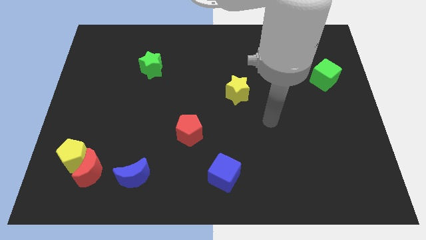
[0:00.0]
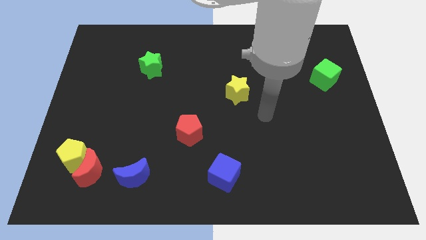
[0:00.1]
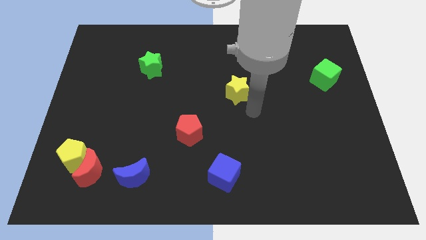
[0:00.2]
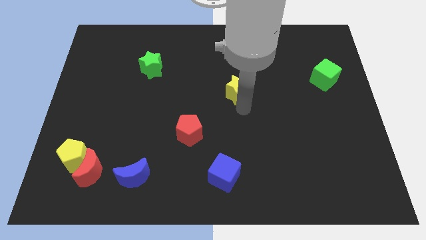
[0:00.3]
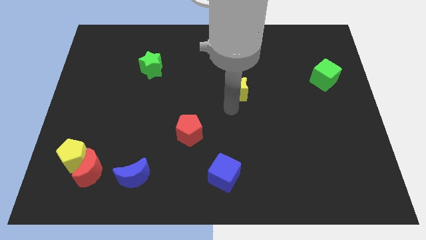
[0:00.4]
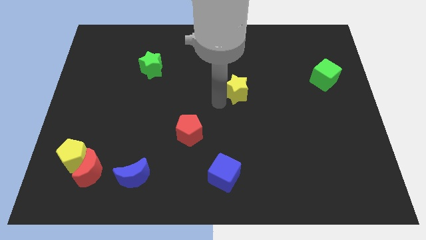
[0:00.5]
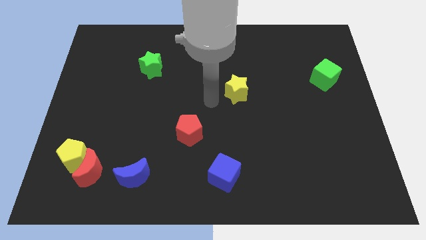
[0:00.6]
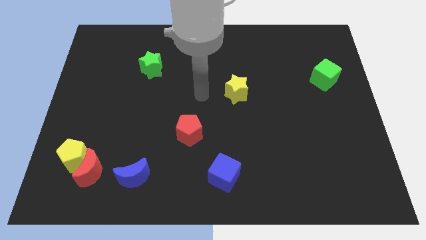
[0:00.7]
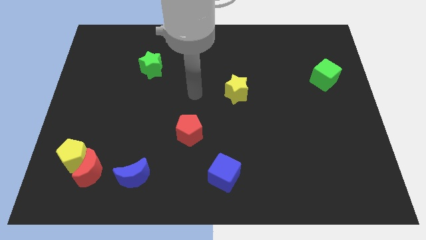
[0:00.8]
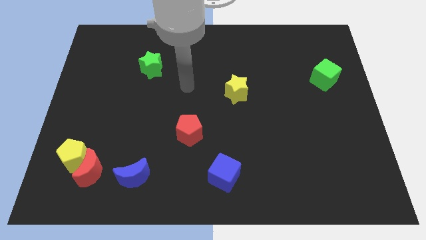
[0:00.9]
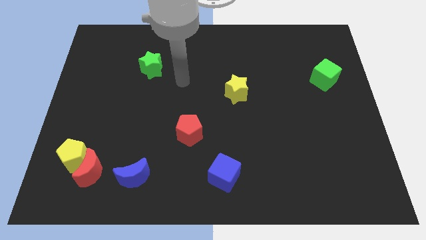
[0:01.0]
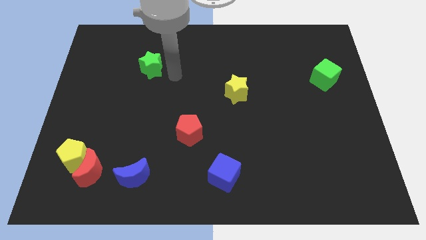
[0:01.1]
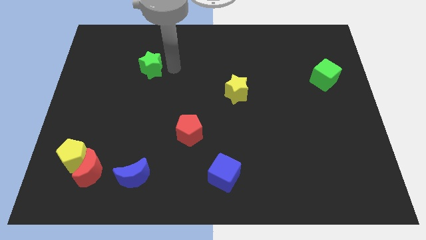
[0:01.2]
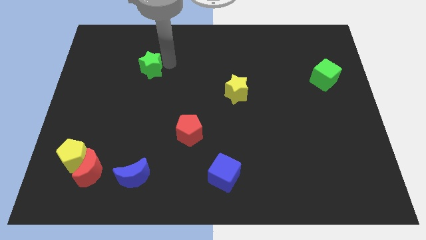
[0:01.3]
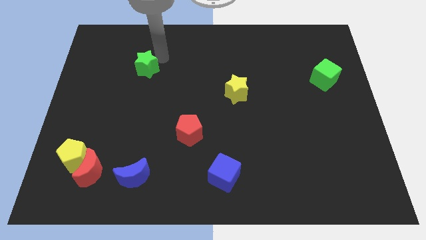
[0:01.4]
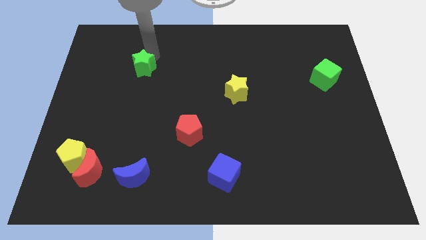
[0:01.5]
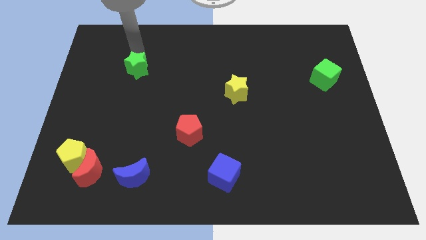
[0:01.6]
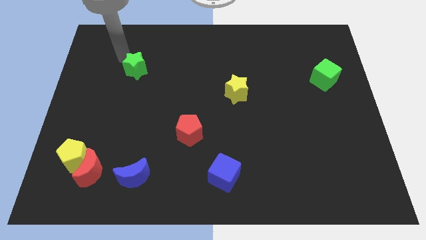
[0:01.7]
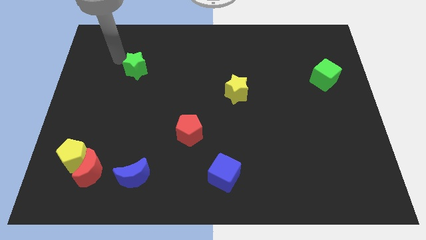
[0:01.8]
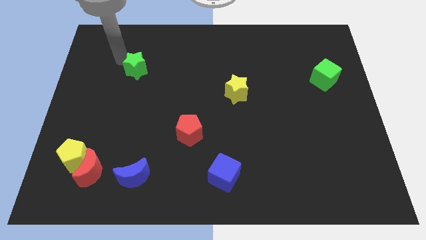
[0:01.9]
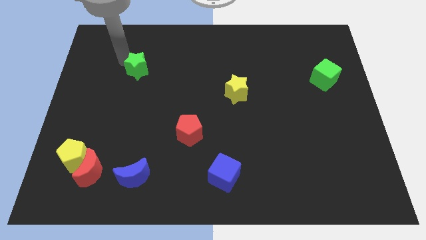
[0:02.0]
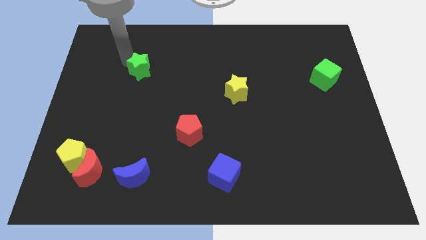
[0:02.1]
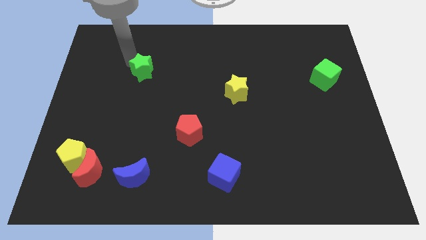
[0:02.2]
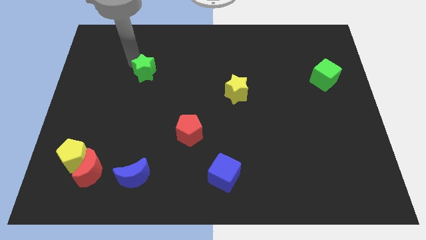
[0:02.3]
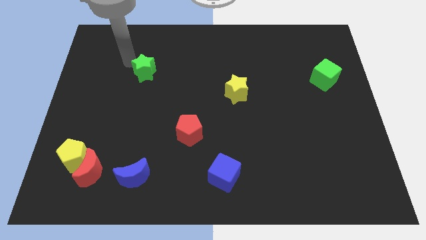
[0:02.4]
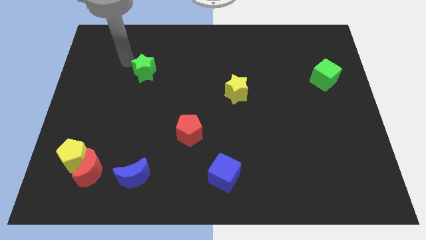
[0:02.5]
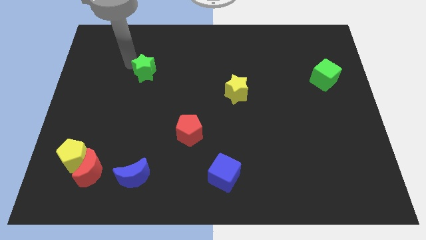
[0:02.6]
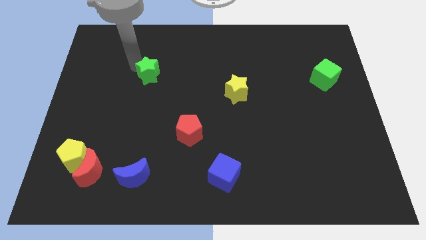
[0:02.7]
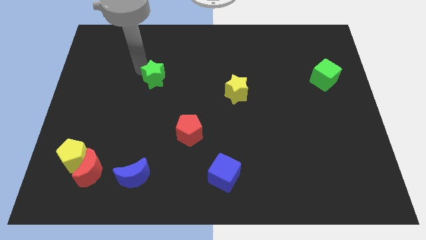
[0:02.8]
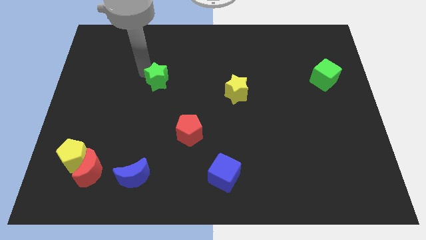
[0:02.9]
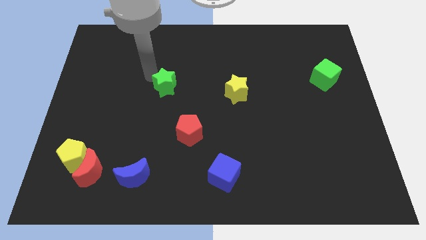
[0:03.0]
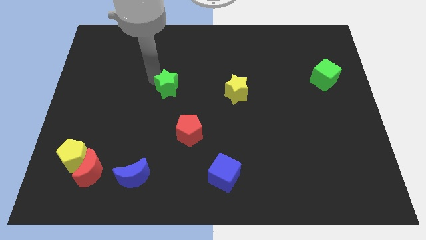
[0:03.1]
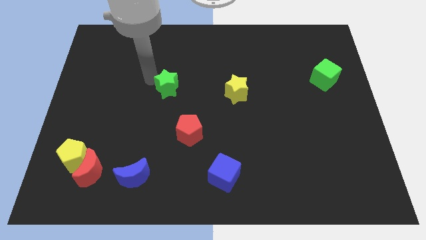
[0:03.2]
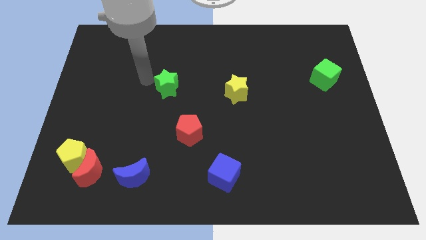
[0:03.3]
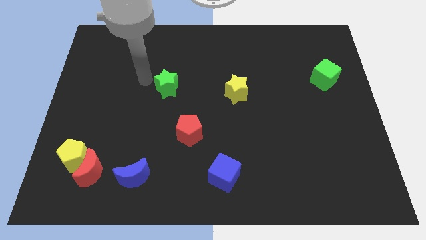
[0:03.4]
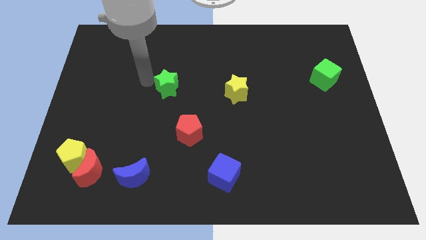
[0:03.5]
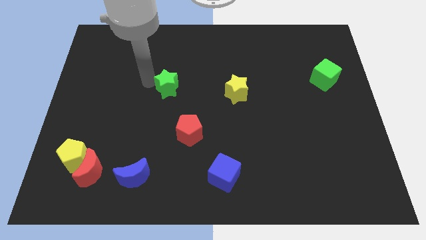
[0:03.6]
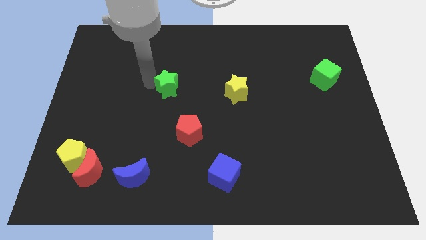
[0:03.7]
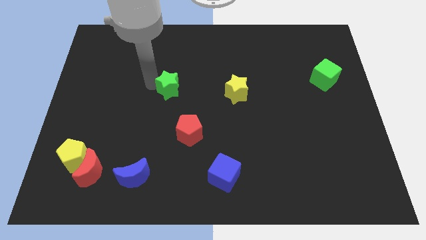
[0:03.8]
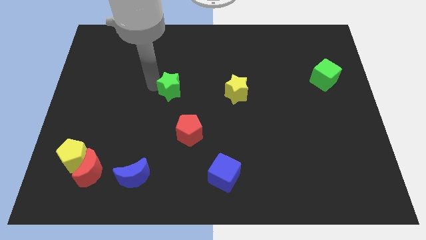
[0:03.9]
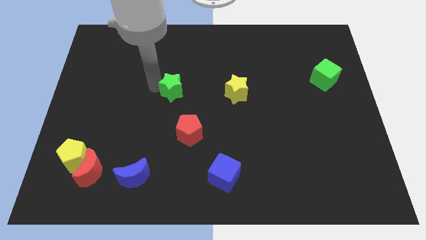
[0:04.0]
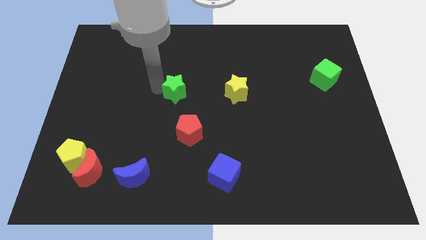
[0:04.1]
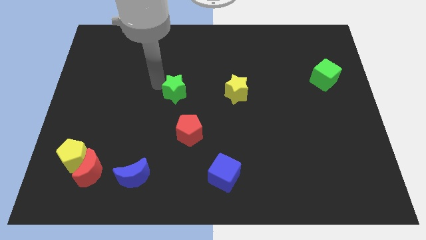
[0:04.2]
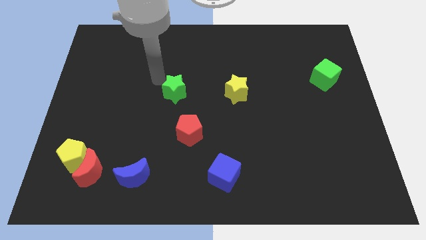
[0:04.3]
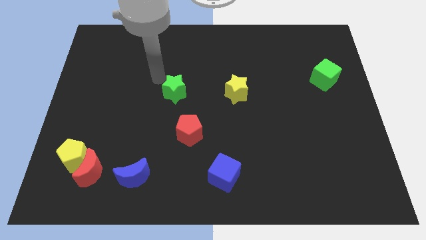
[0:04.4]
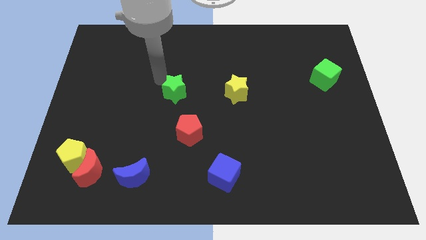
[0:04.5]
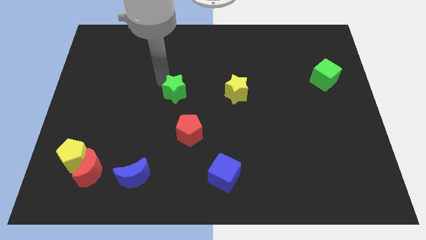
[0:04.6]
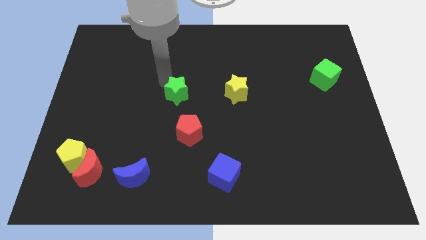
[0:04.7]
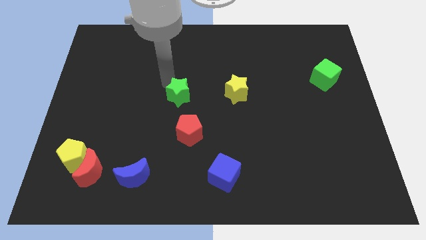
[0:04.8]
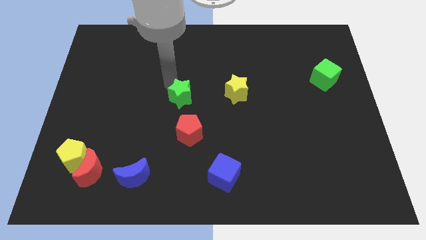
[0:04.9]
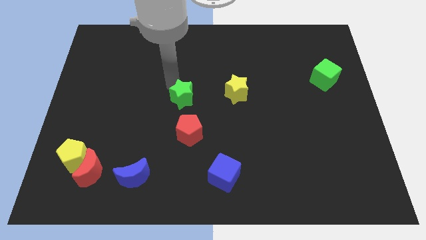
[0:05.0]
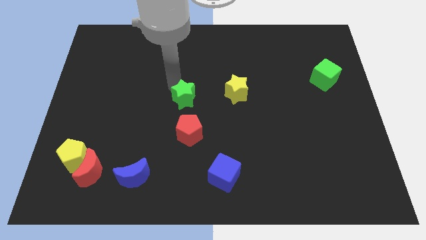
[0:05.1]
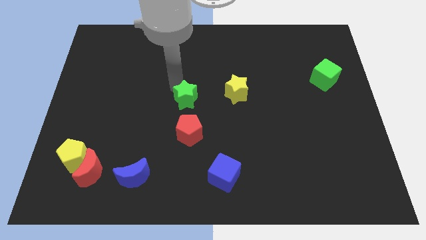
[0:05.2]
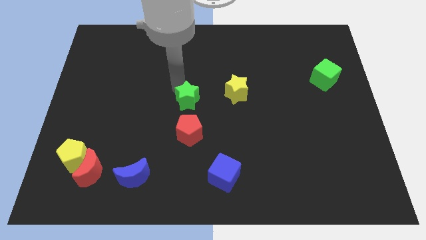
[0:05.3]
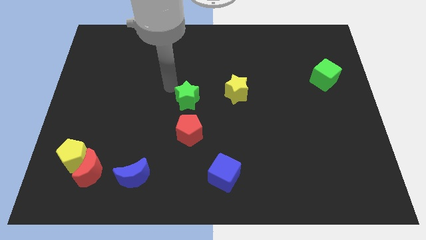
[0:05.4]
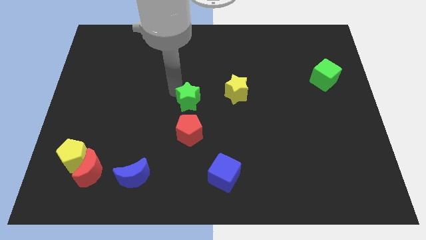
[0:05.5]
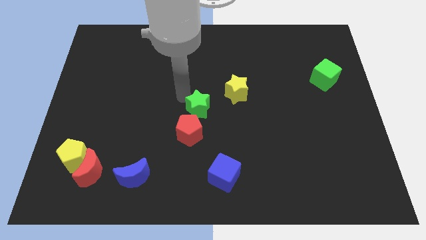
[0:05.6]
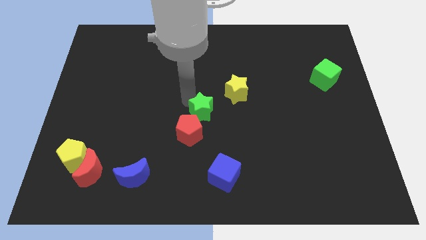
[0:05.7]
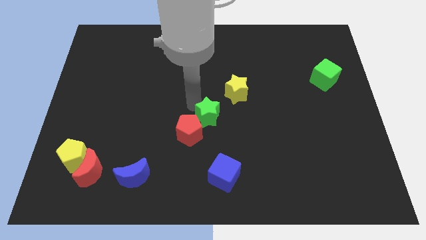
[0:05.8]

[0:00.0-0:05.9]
slide the green star downwards and right diagonally

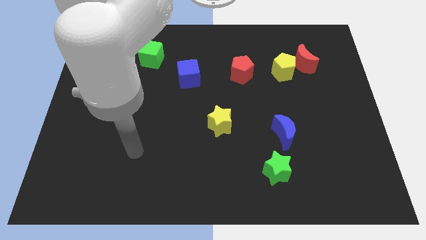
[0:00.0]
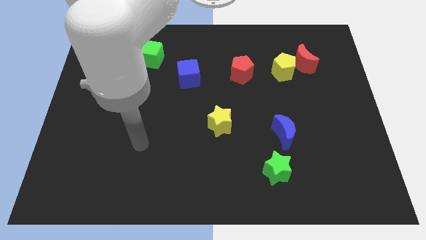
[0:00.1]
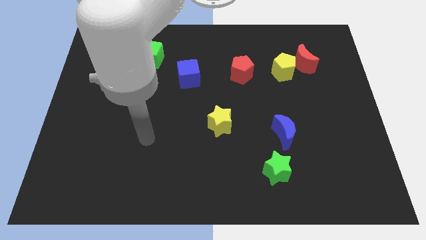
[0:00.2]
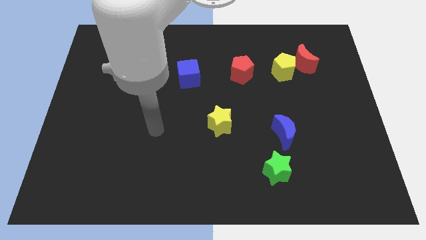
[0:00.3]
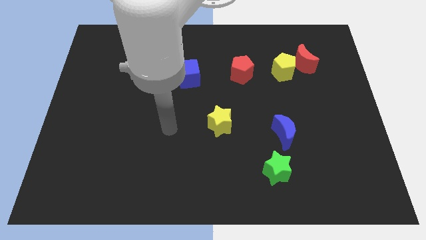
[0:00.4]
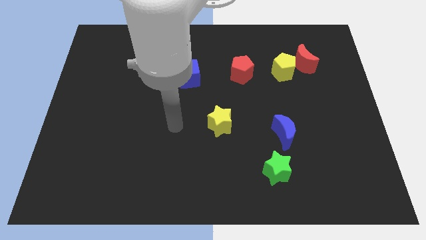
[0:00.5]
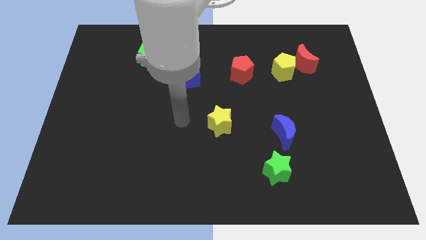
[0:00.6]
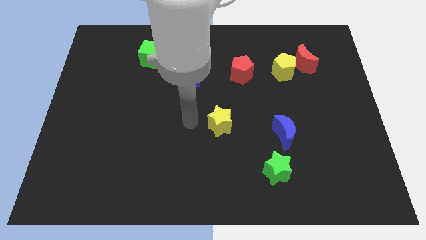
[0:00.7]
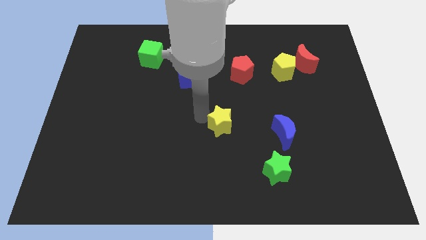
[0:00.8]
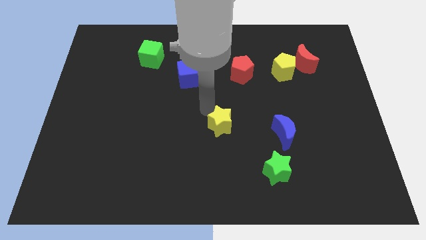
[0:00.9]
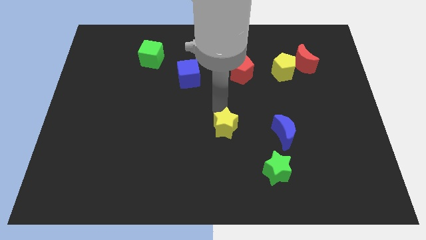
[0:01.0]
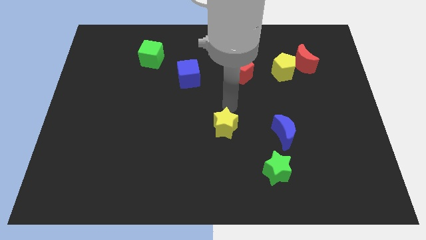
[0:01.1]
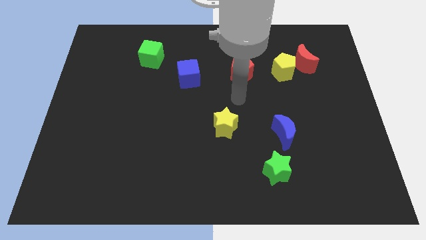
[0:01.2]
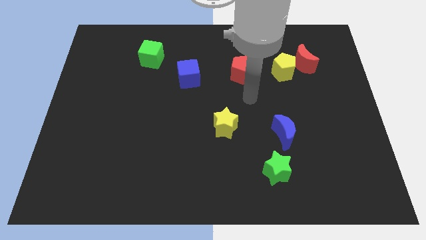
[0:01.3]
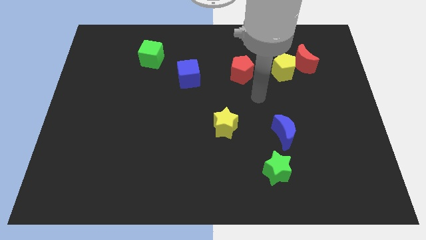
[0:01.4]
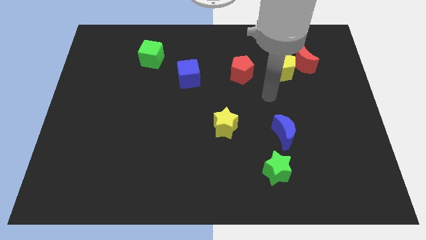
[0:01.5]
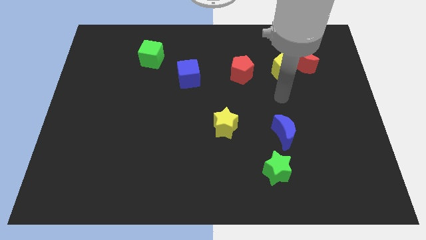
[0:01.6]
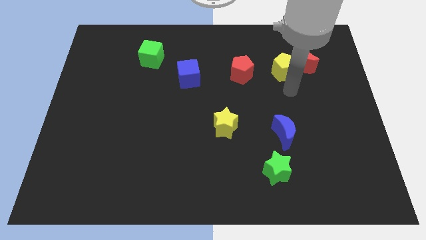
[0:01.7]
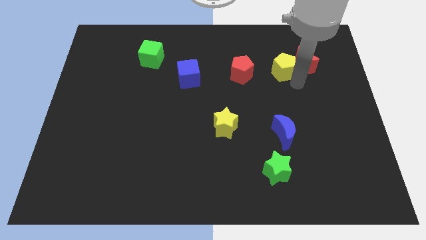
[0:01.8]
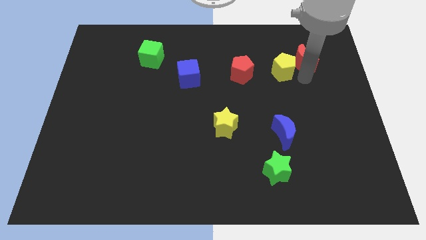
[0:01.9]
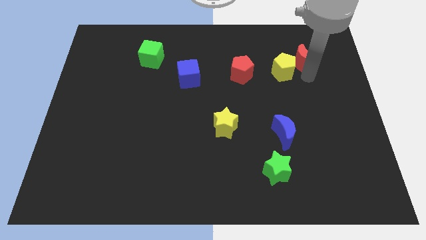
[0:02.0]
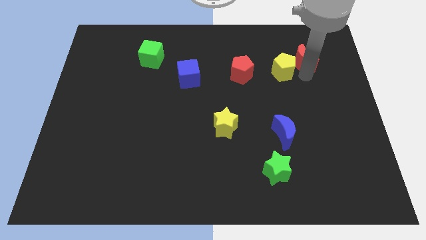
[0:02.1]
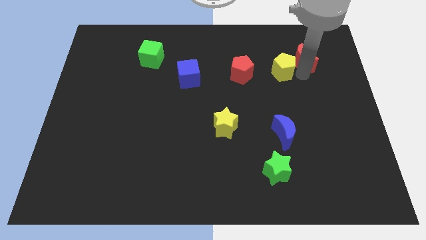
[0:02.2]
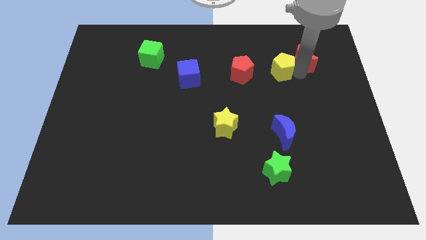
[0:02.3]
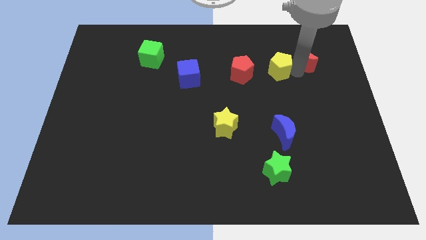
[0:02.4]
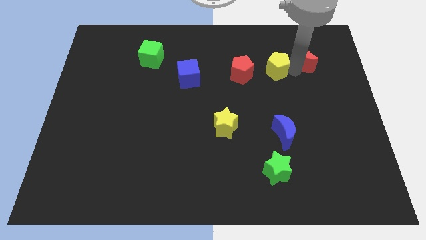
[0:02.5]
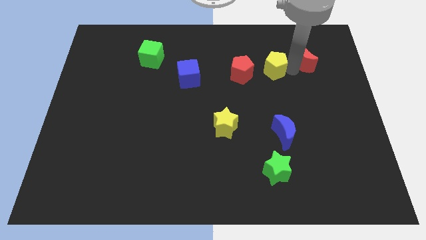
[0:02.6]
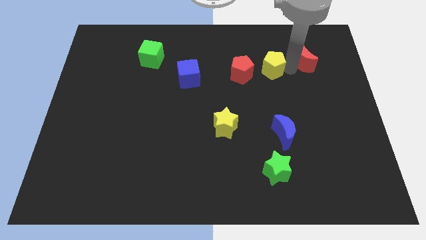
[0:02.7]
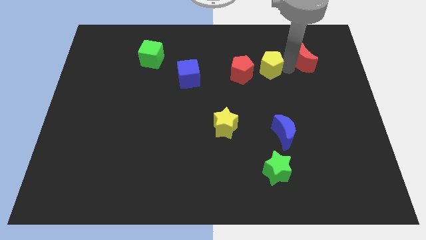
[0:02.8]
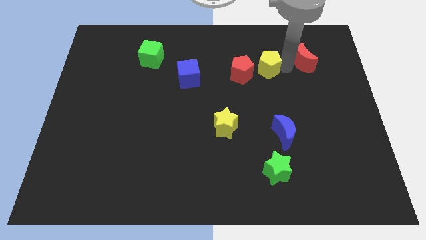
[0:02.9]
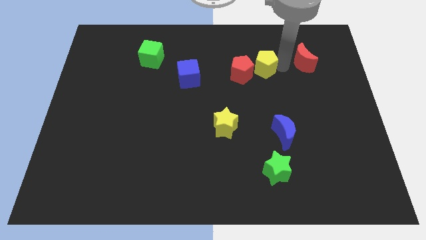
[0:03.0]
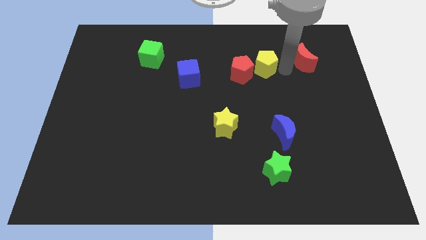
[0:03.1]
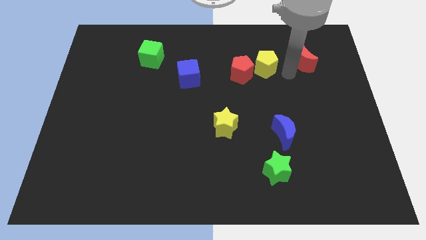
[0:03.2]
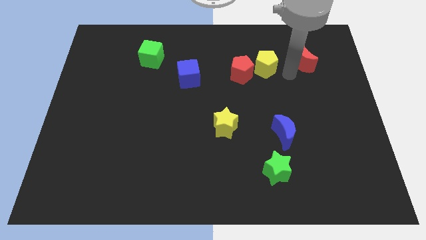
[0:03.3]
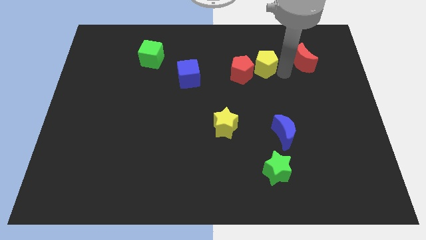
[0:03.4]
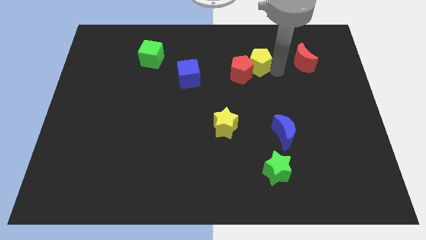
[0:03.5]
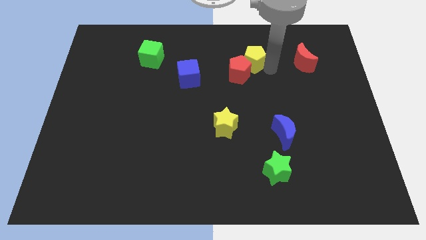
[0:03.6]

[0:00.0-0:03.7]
slightly slide the yellow pentagon left
